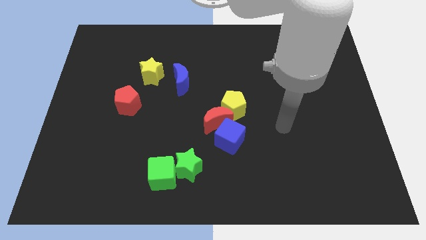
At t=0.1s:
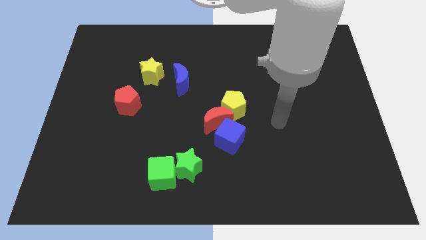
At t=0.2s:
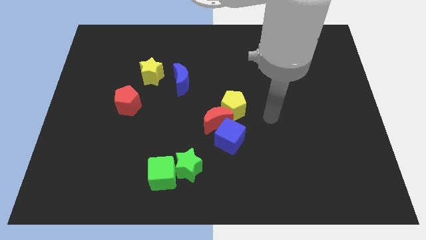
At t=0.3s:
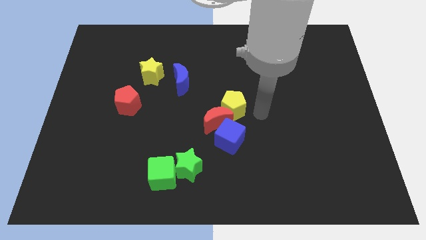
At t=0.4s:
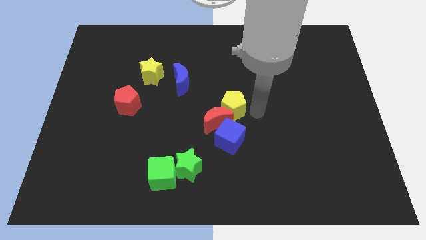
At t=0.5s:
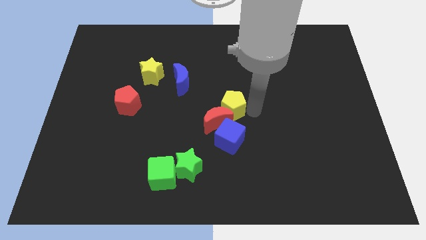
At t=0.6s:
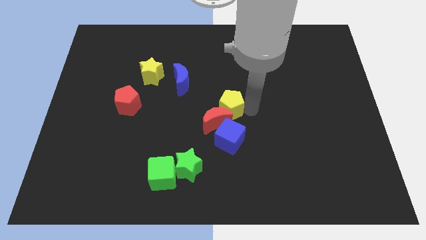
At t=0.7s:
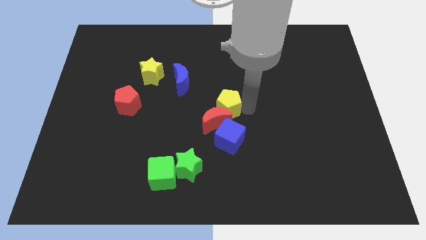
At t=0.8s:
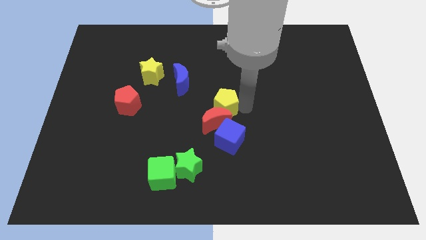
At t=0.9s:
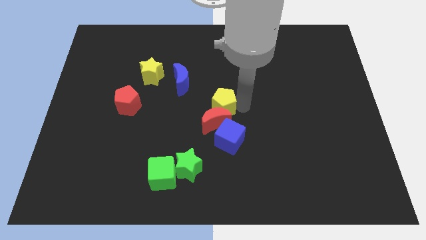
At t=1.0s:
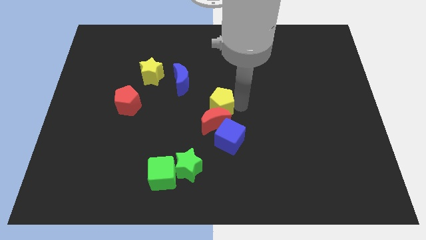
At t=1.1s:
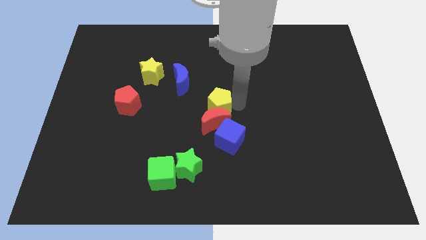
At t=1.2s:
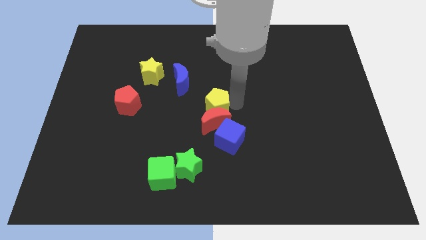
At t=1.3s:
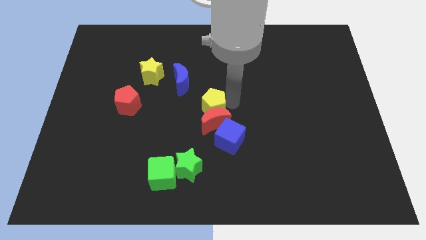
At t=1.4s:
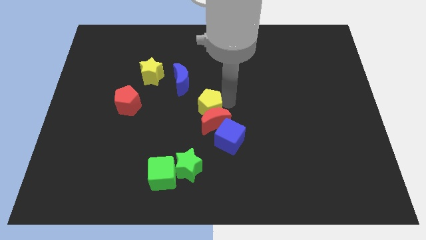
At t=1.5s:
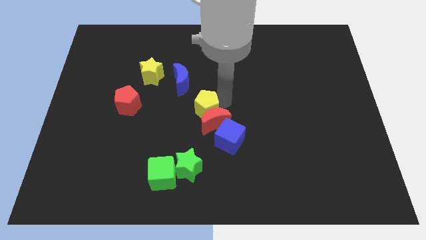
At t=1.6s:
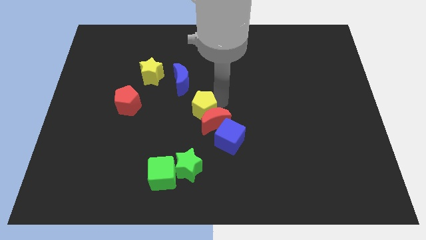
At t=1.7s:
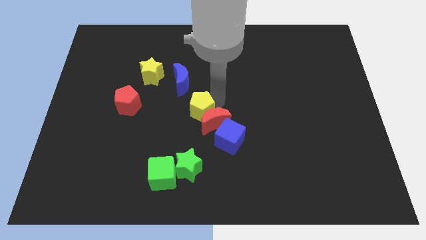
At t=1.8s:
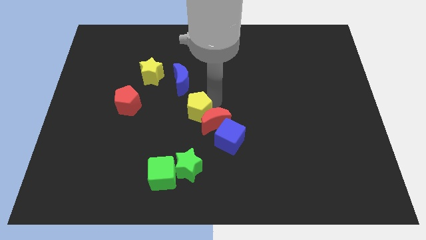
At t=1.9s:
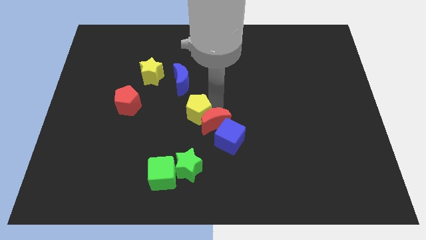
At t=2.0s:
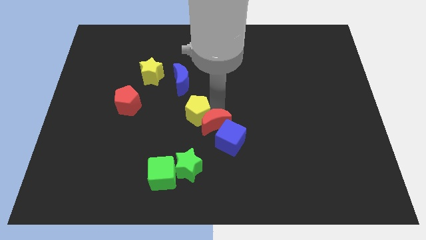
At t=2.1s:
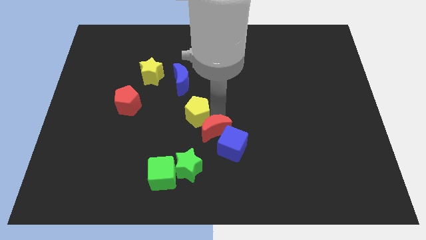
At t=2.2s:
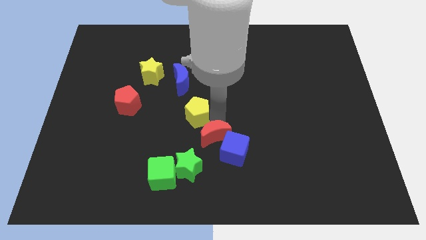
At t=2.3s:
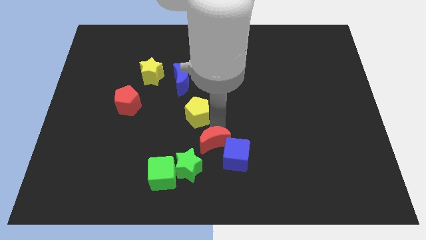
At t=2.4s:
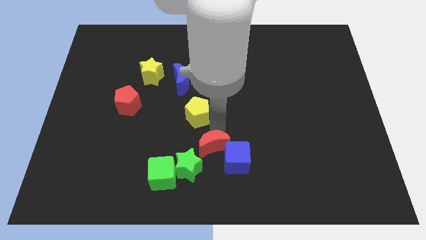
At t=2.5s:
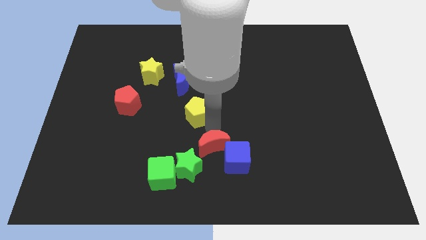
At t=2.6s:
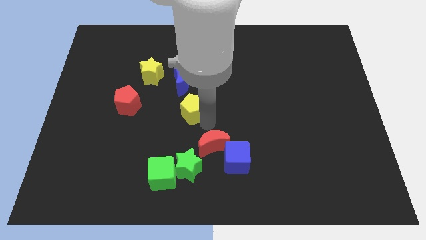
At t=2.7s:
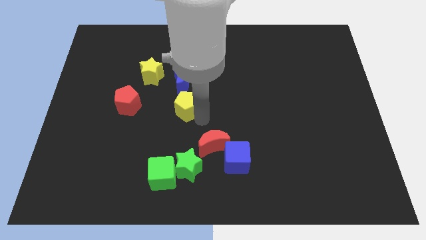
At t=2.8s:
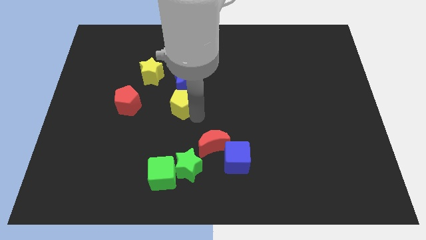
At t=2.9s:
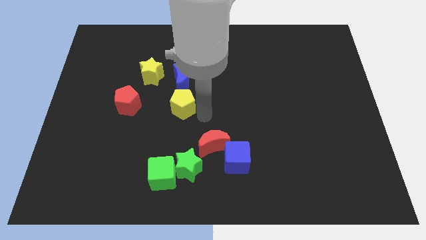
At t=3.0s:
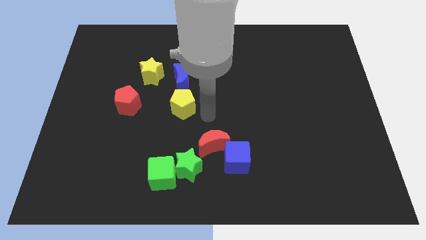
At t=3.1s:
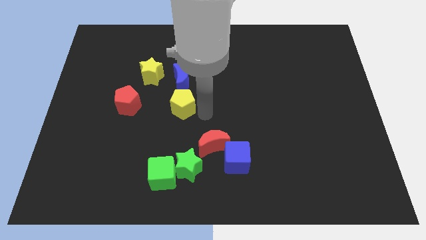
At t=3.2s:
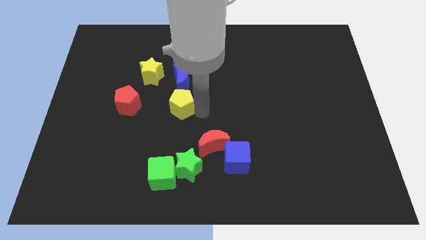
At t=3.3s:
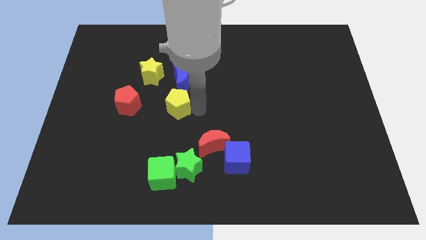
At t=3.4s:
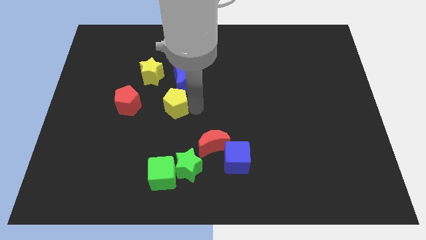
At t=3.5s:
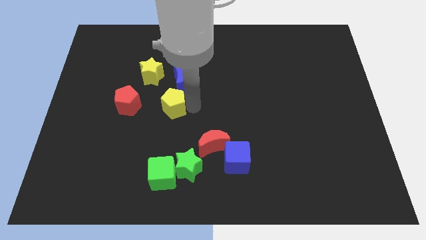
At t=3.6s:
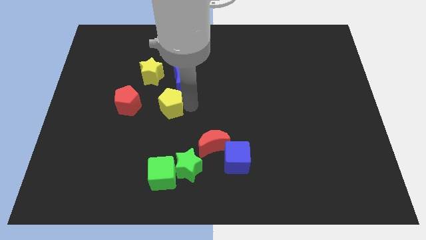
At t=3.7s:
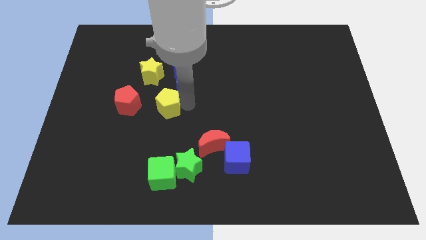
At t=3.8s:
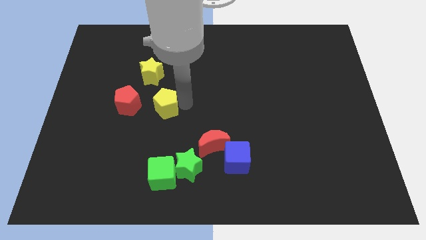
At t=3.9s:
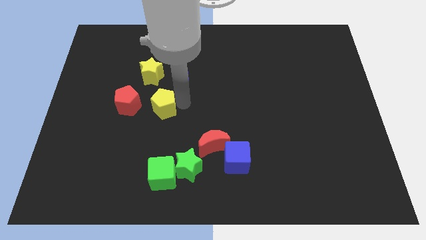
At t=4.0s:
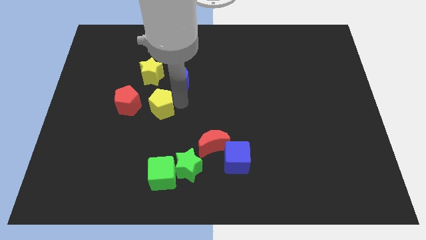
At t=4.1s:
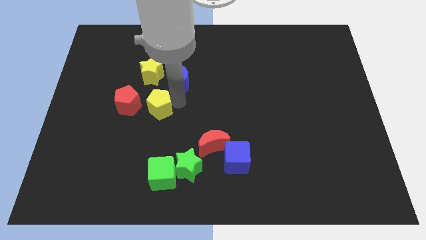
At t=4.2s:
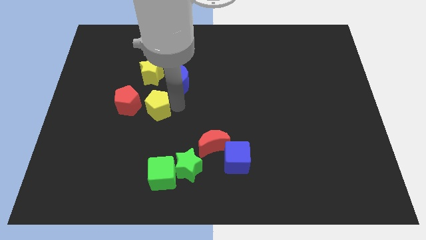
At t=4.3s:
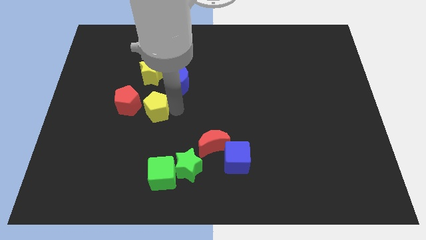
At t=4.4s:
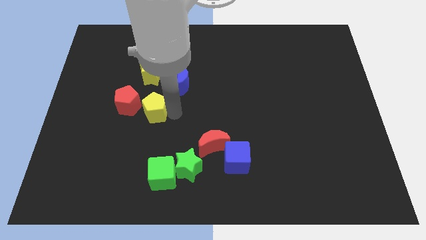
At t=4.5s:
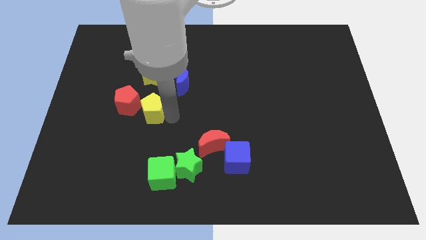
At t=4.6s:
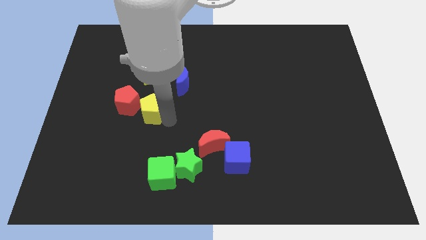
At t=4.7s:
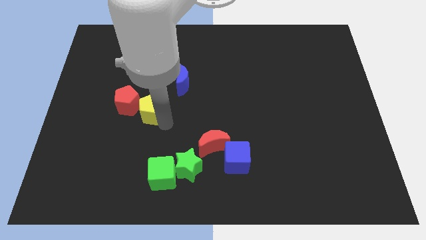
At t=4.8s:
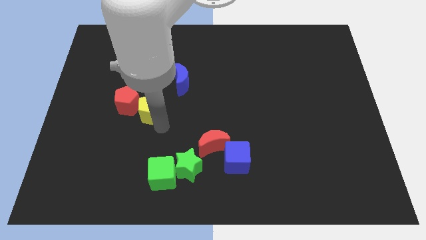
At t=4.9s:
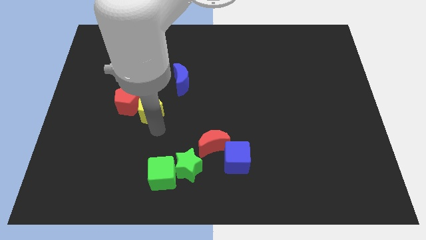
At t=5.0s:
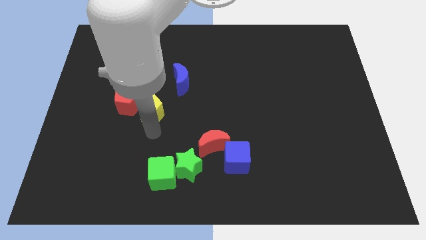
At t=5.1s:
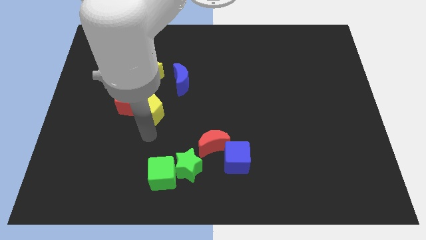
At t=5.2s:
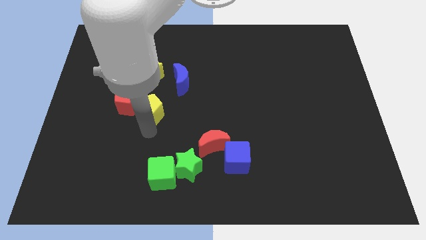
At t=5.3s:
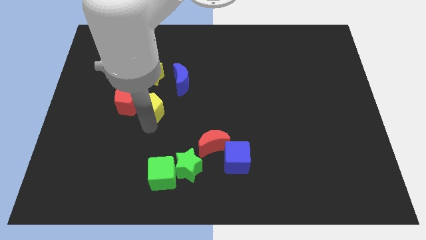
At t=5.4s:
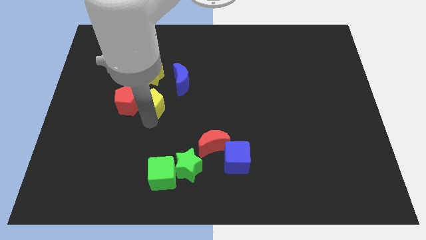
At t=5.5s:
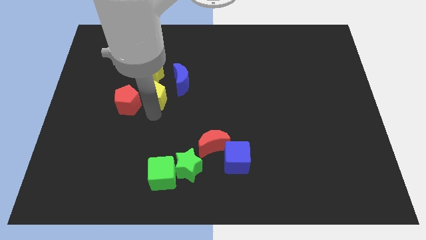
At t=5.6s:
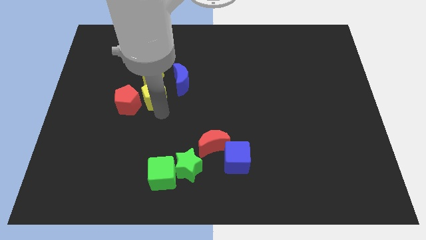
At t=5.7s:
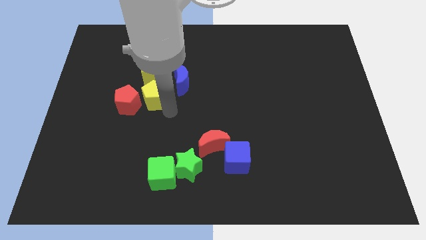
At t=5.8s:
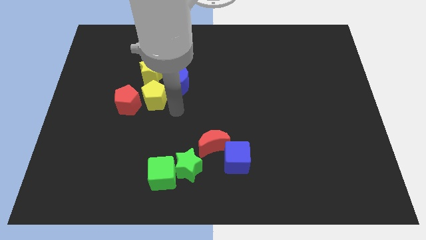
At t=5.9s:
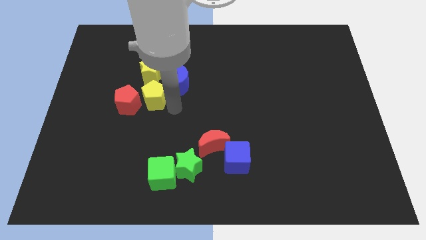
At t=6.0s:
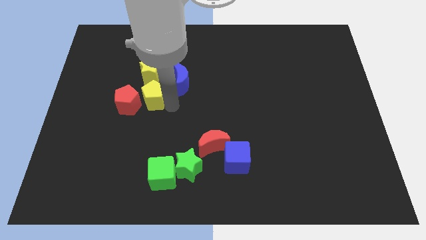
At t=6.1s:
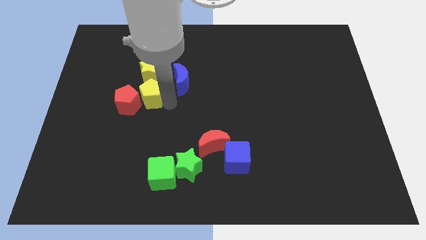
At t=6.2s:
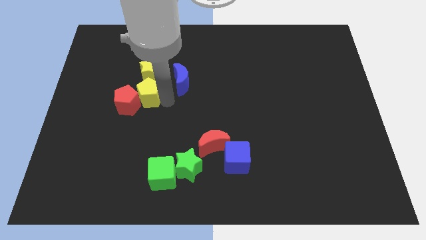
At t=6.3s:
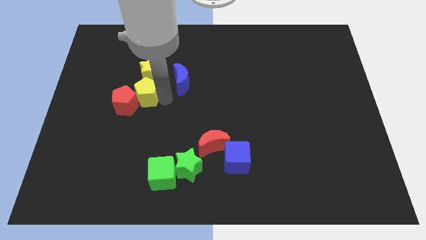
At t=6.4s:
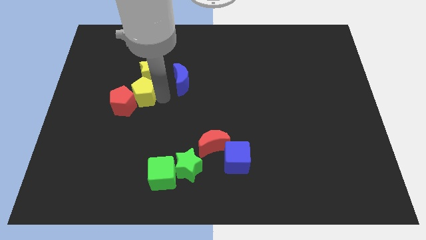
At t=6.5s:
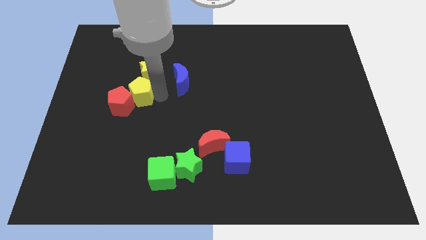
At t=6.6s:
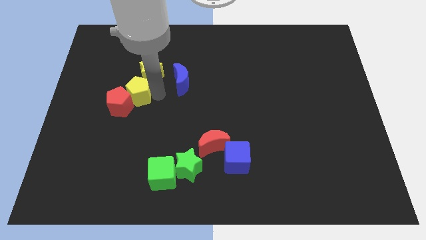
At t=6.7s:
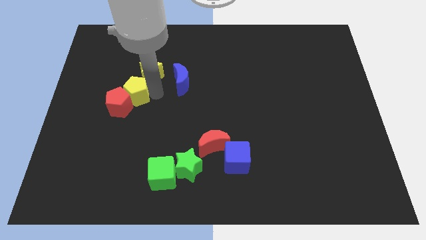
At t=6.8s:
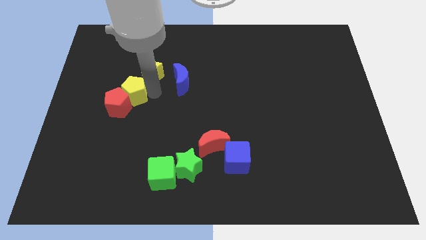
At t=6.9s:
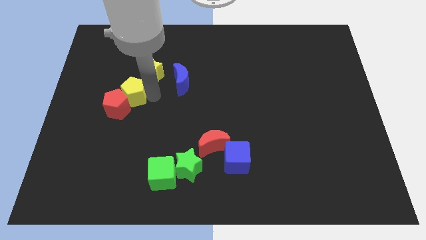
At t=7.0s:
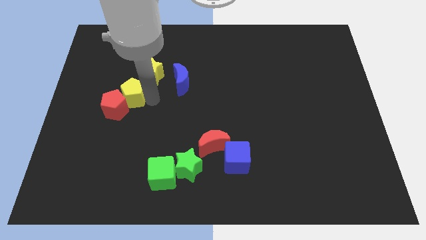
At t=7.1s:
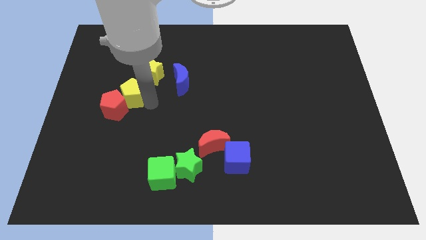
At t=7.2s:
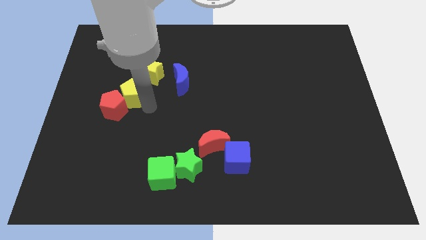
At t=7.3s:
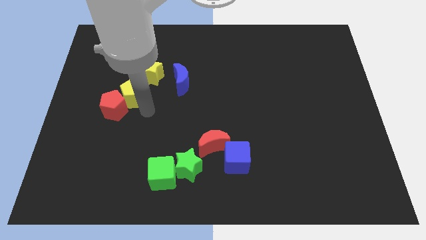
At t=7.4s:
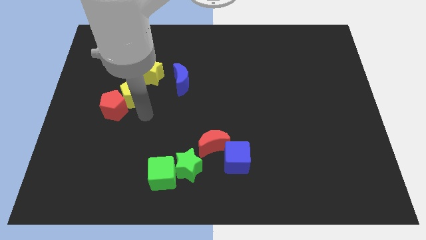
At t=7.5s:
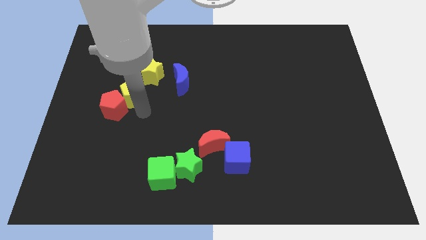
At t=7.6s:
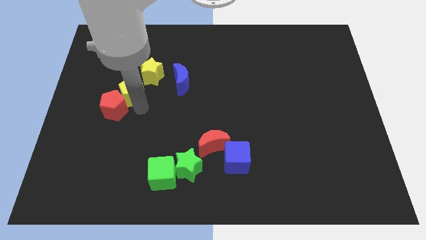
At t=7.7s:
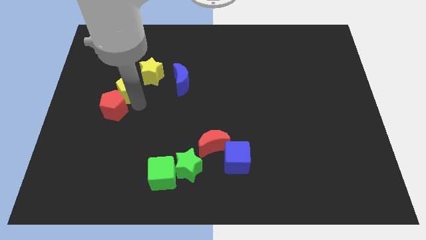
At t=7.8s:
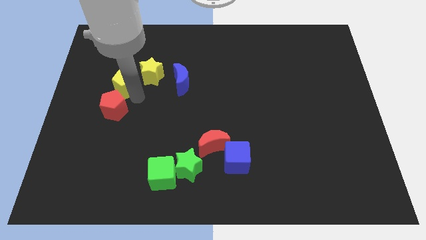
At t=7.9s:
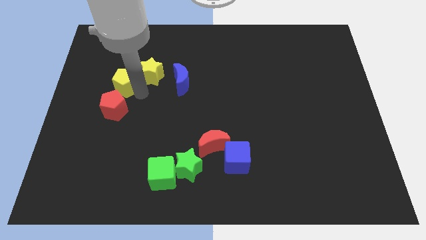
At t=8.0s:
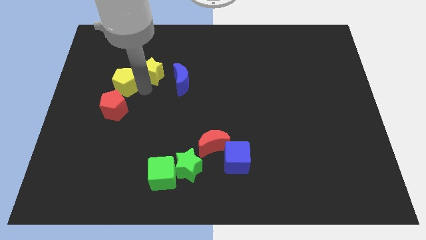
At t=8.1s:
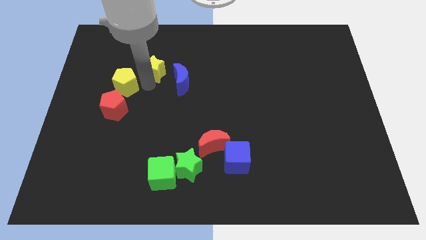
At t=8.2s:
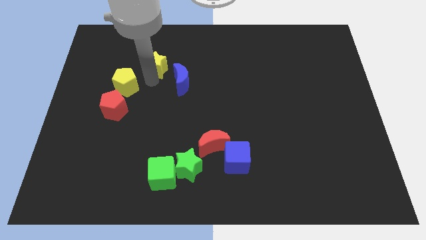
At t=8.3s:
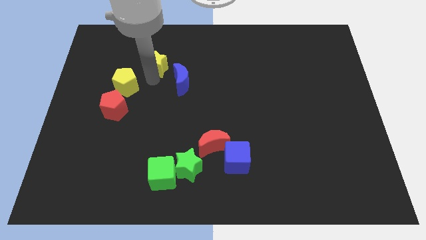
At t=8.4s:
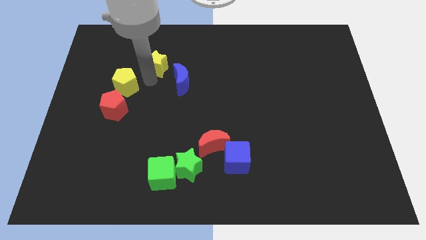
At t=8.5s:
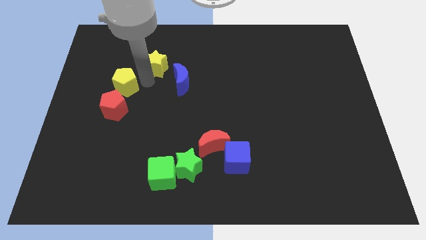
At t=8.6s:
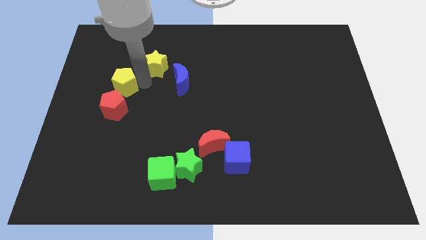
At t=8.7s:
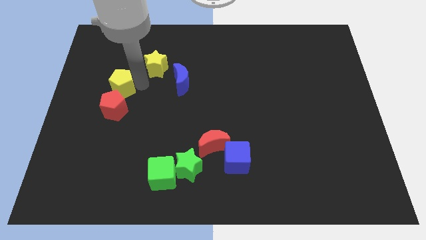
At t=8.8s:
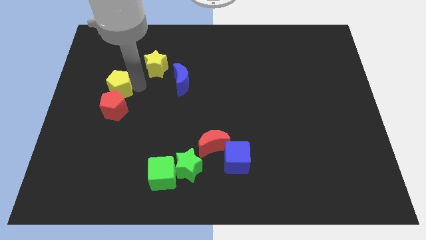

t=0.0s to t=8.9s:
put the yellow pentagon diagonally up and to the left of the red pentagon
